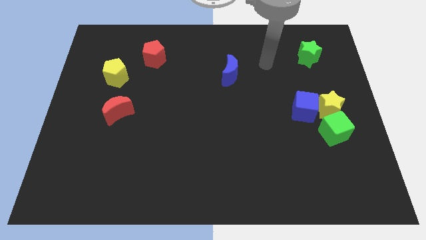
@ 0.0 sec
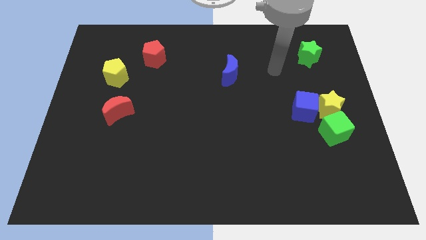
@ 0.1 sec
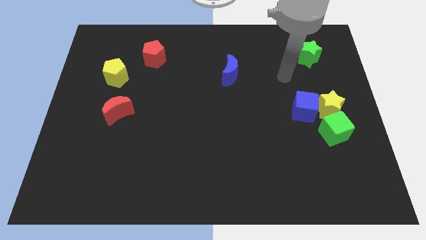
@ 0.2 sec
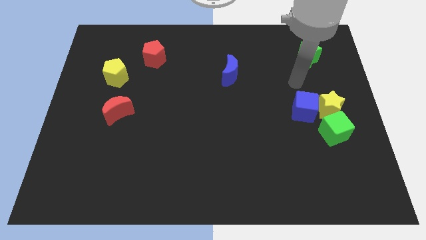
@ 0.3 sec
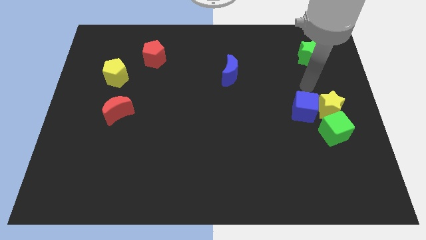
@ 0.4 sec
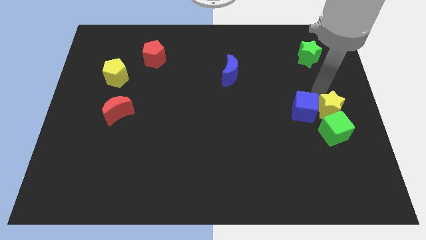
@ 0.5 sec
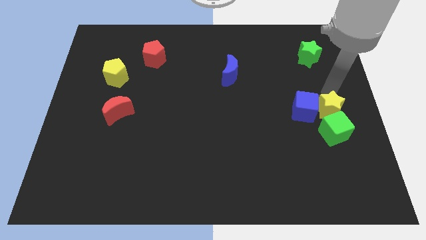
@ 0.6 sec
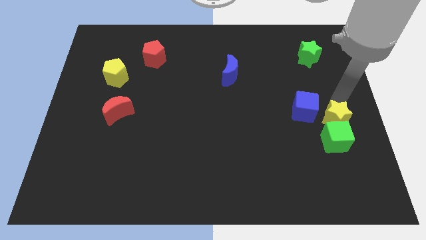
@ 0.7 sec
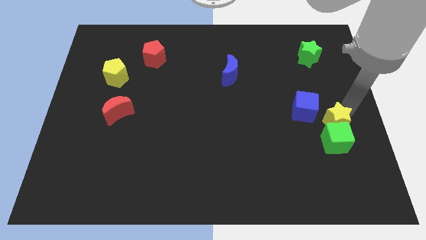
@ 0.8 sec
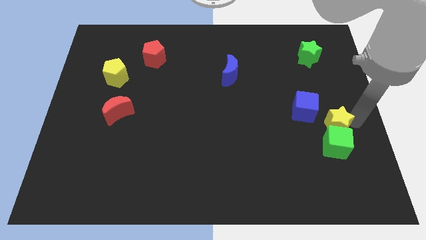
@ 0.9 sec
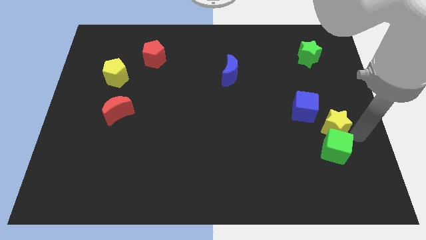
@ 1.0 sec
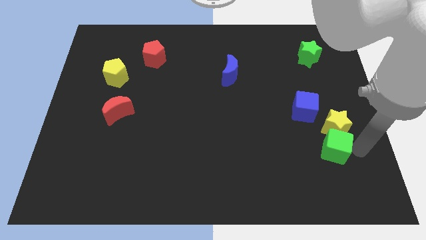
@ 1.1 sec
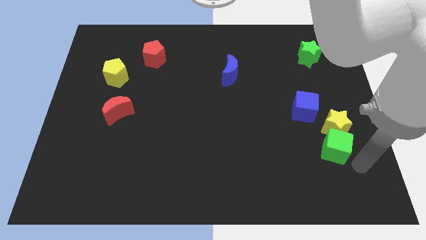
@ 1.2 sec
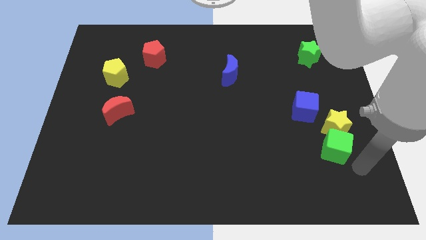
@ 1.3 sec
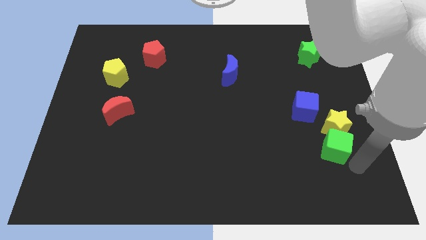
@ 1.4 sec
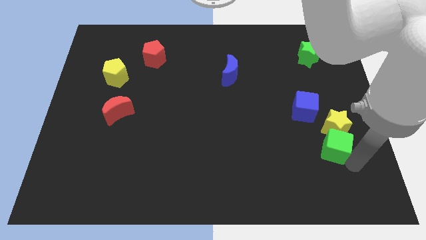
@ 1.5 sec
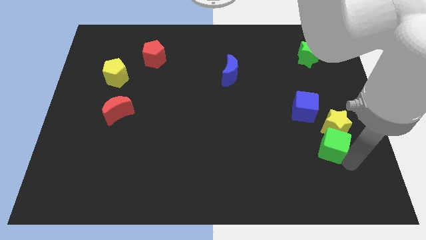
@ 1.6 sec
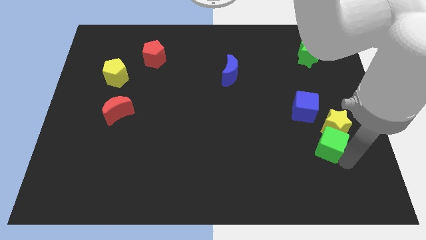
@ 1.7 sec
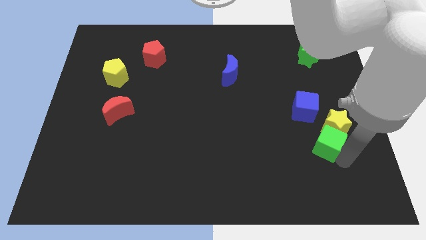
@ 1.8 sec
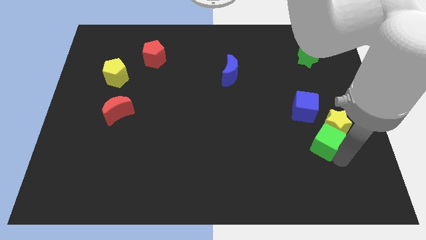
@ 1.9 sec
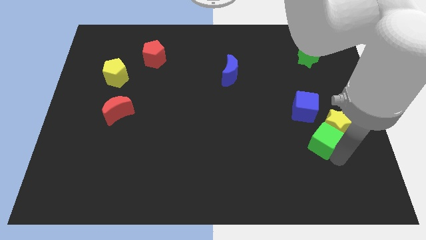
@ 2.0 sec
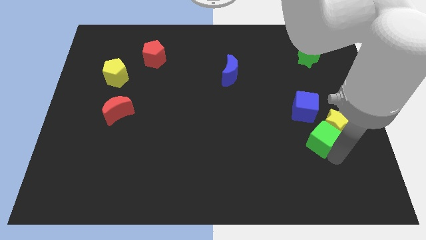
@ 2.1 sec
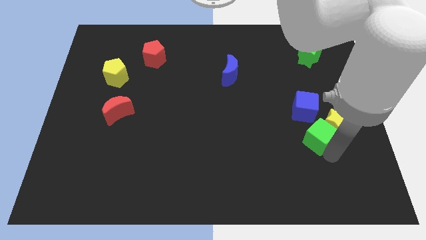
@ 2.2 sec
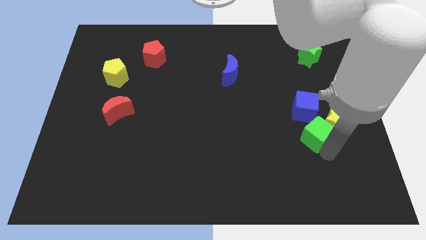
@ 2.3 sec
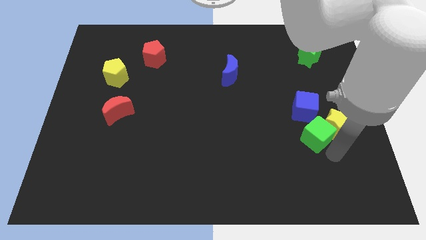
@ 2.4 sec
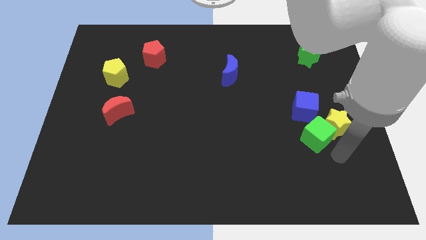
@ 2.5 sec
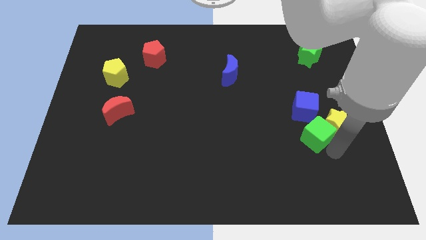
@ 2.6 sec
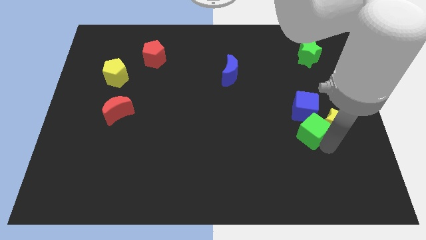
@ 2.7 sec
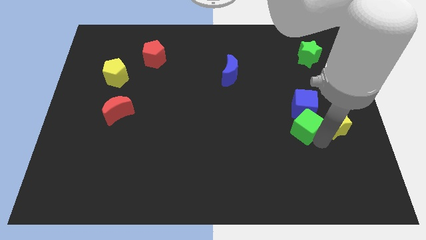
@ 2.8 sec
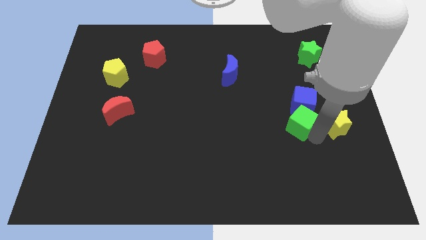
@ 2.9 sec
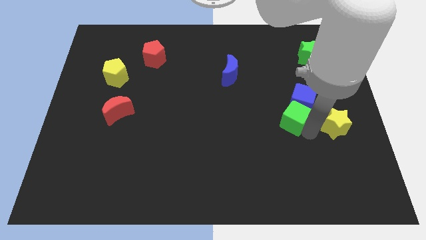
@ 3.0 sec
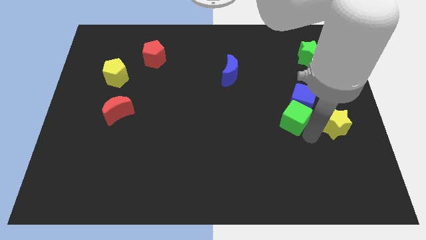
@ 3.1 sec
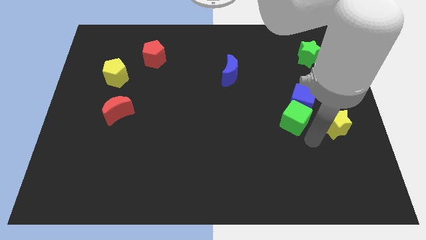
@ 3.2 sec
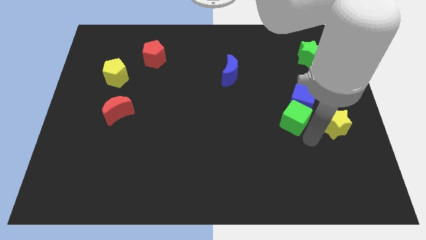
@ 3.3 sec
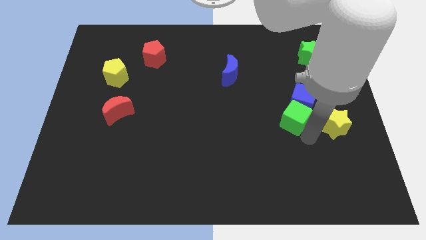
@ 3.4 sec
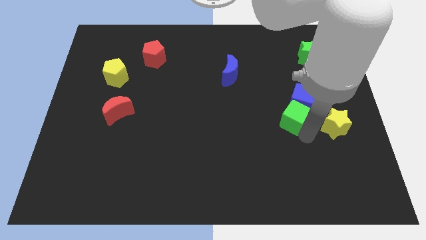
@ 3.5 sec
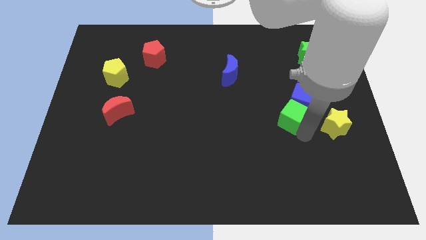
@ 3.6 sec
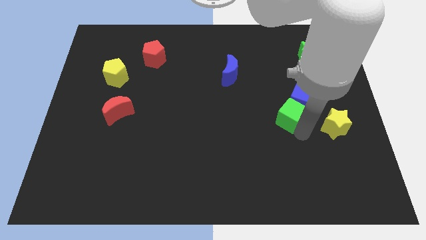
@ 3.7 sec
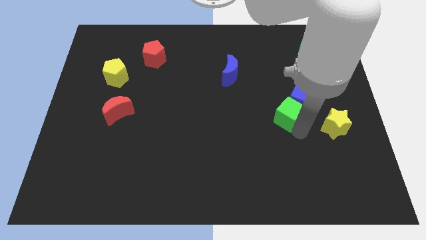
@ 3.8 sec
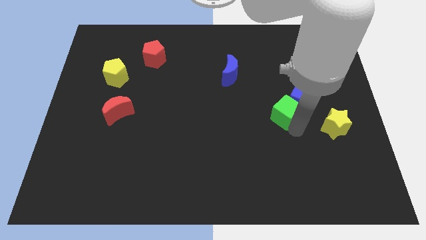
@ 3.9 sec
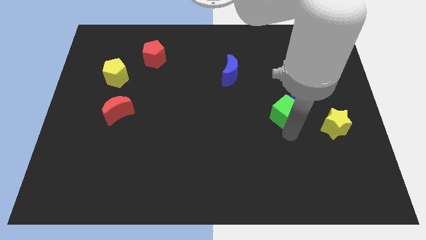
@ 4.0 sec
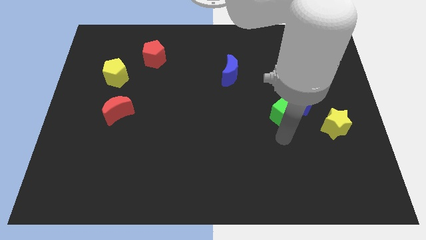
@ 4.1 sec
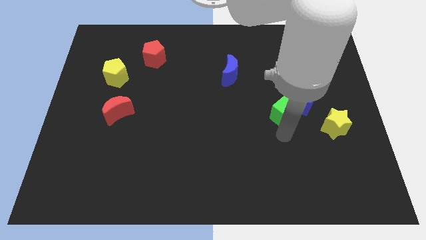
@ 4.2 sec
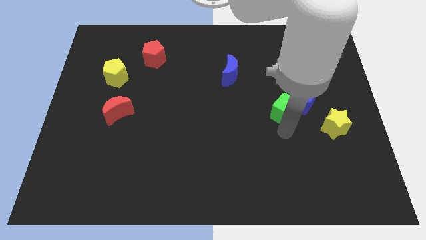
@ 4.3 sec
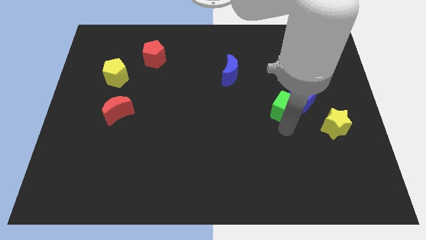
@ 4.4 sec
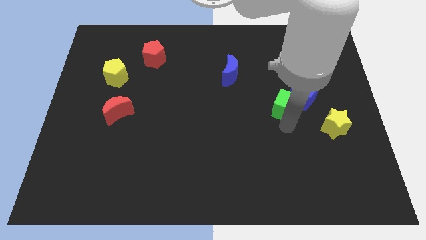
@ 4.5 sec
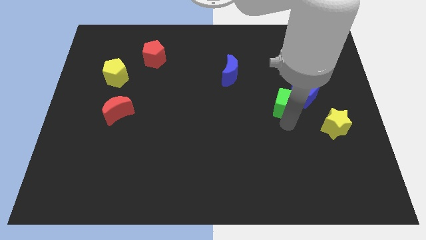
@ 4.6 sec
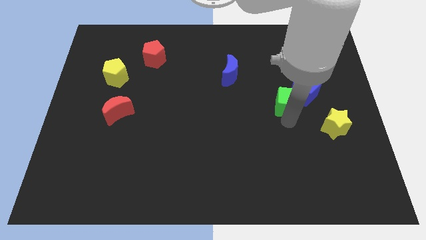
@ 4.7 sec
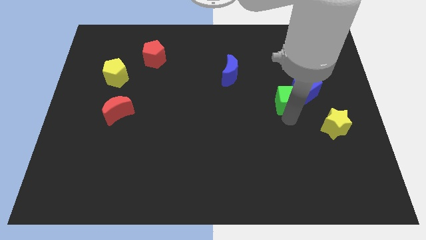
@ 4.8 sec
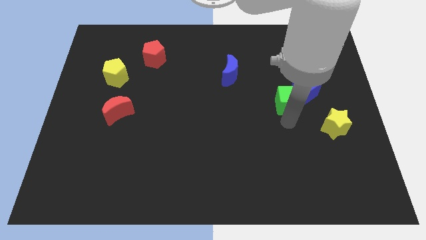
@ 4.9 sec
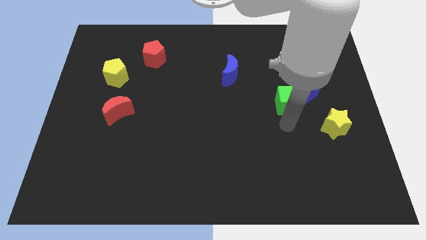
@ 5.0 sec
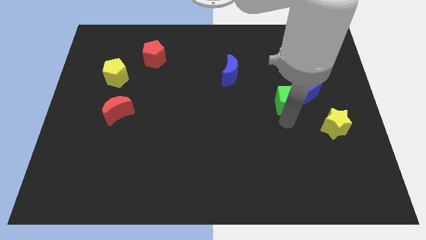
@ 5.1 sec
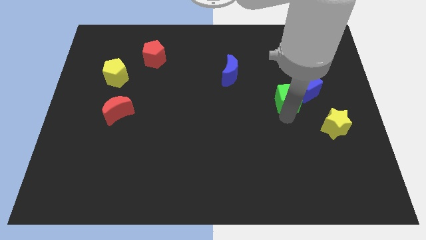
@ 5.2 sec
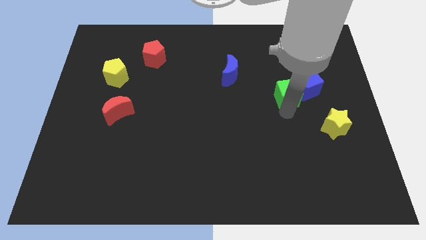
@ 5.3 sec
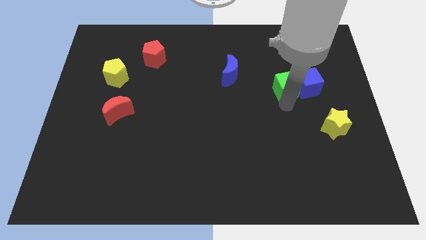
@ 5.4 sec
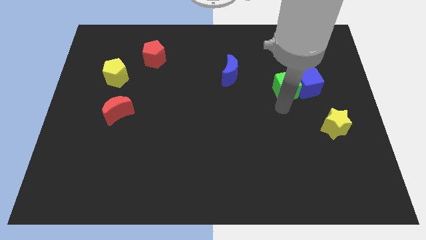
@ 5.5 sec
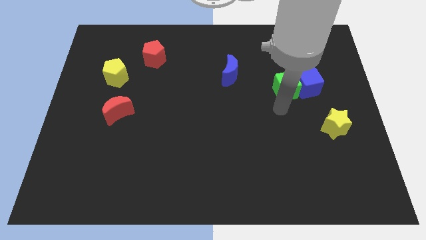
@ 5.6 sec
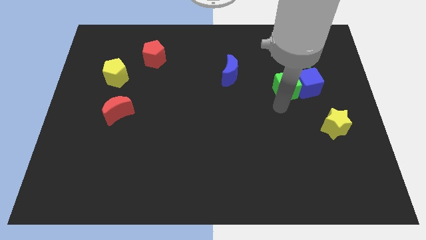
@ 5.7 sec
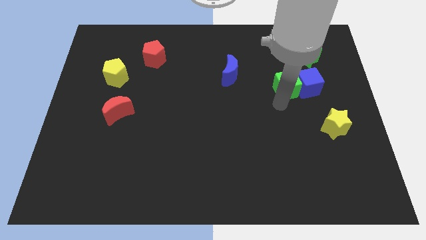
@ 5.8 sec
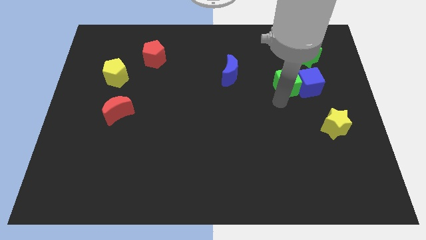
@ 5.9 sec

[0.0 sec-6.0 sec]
push the green cube diagonally down and to the left of the green star
